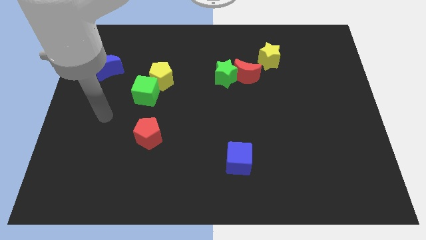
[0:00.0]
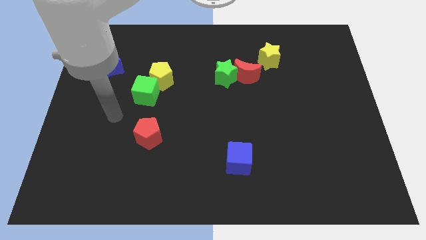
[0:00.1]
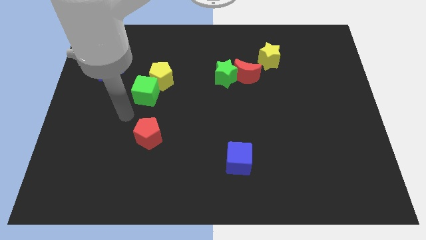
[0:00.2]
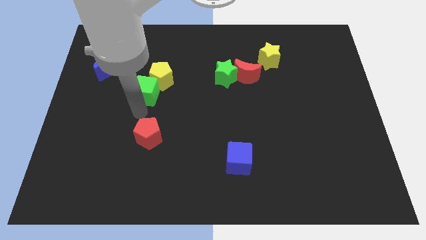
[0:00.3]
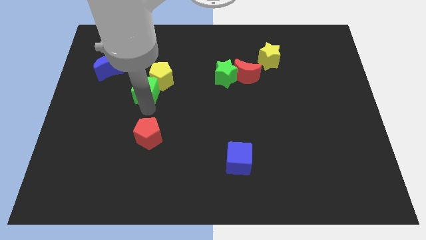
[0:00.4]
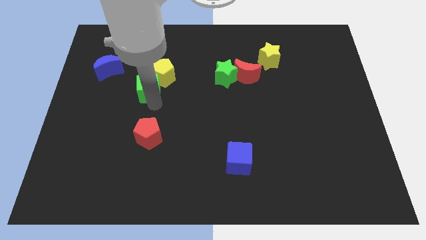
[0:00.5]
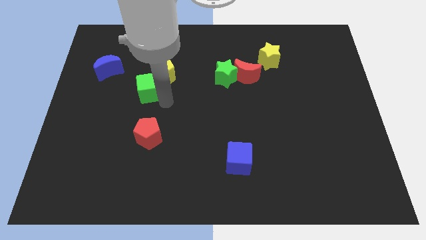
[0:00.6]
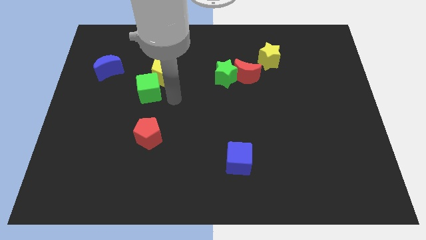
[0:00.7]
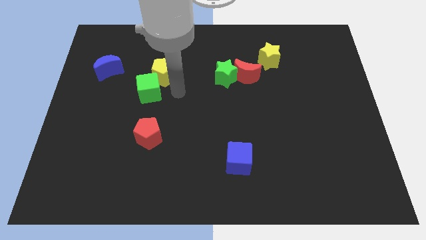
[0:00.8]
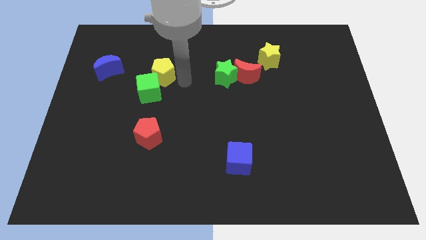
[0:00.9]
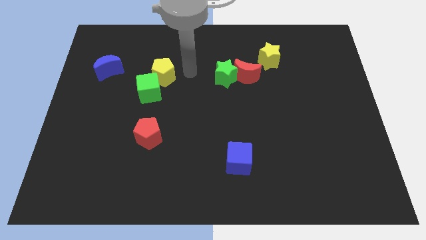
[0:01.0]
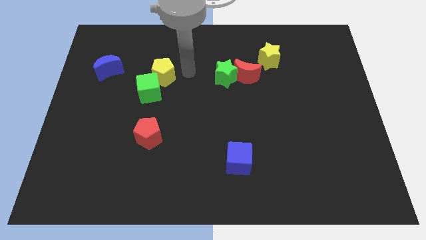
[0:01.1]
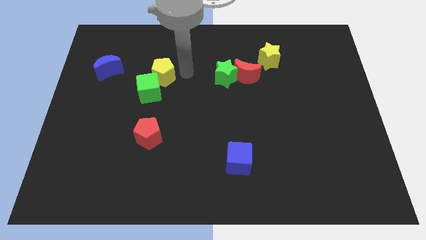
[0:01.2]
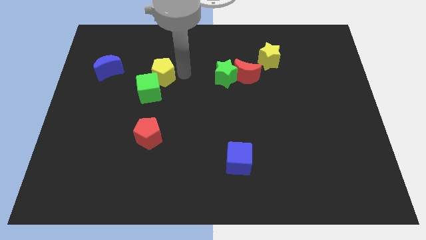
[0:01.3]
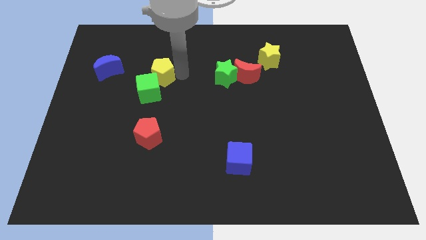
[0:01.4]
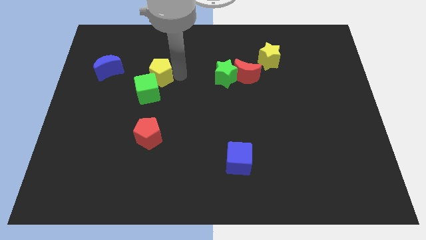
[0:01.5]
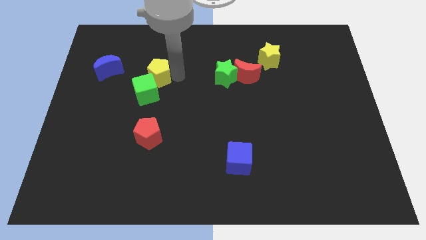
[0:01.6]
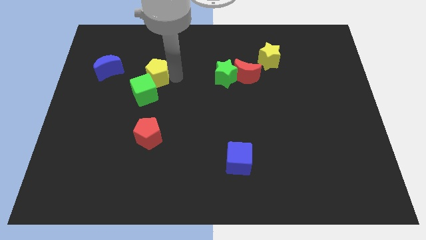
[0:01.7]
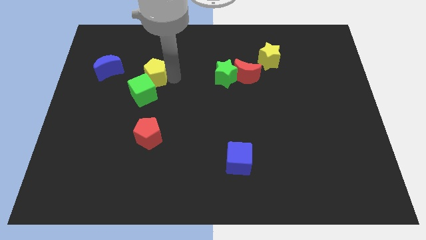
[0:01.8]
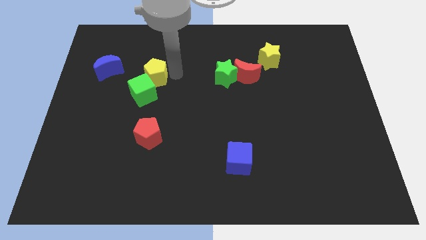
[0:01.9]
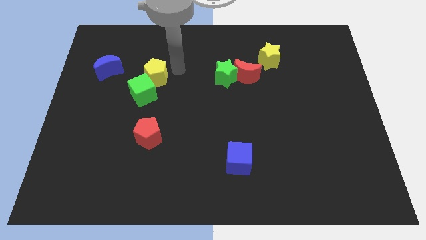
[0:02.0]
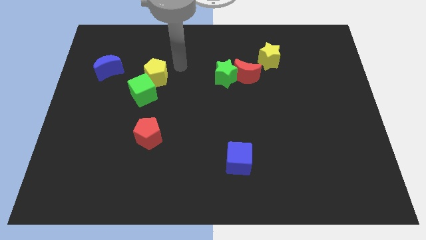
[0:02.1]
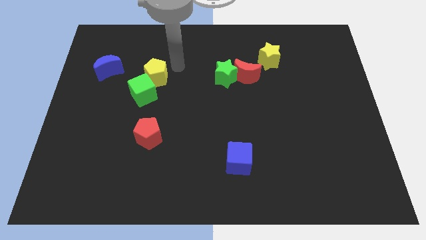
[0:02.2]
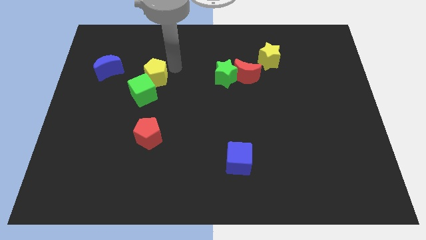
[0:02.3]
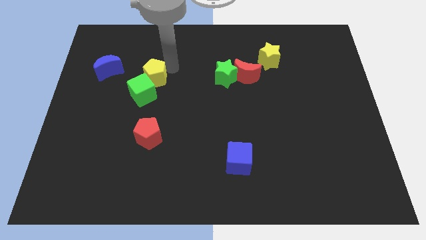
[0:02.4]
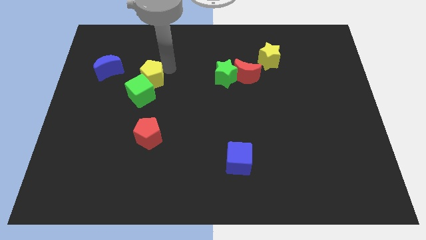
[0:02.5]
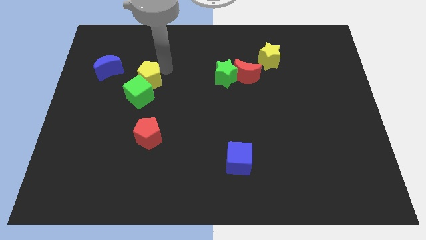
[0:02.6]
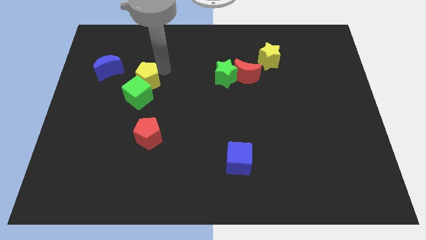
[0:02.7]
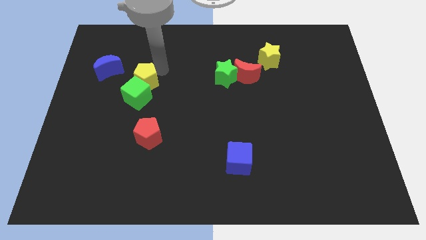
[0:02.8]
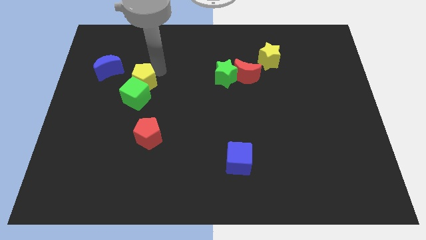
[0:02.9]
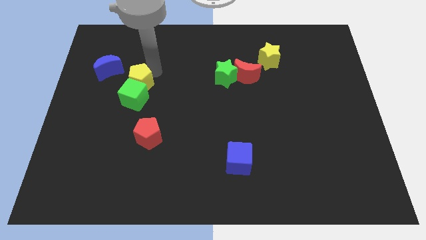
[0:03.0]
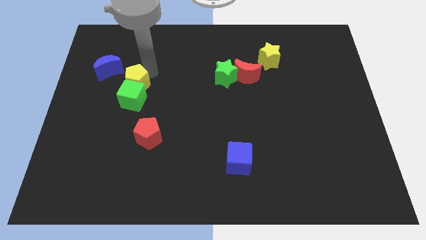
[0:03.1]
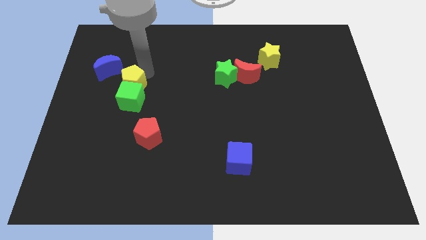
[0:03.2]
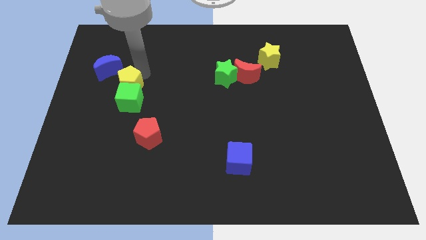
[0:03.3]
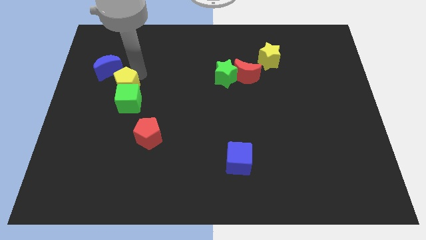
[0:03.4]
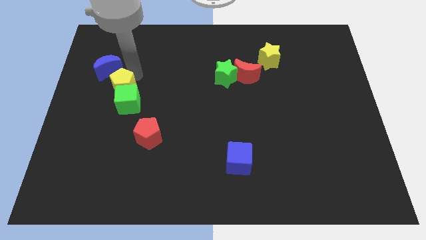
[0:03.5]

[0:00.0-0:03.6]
move the yellow pentagon a little down and left diagonally

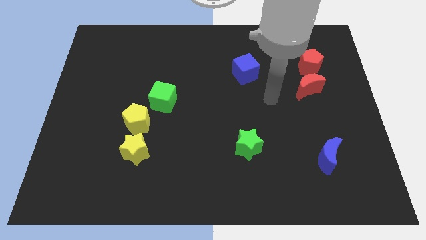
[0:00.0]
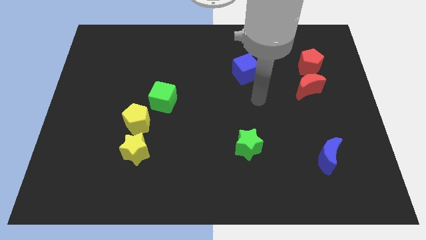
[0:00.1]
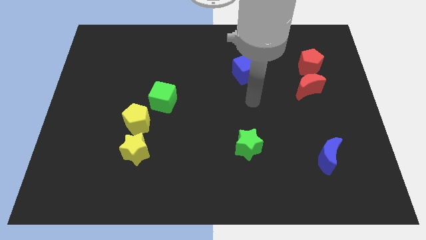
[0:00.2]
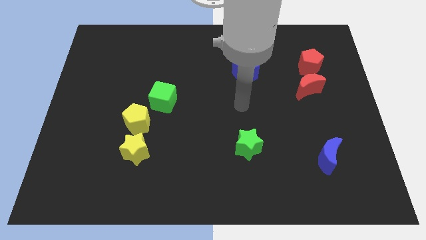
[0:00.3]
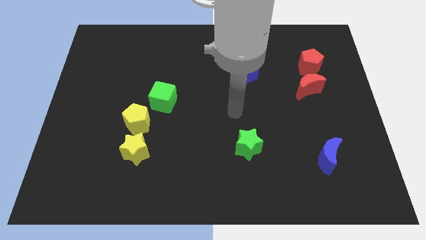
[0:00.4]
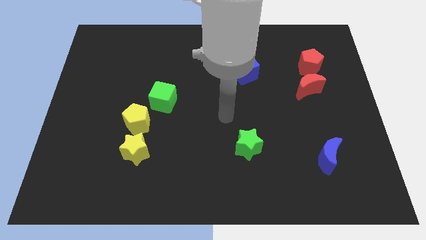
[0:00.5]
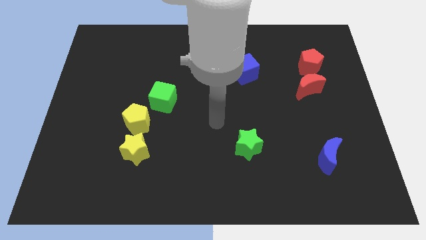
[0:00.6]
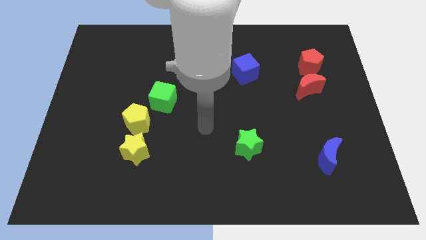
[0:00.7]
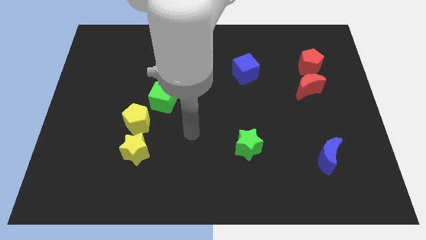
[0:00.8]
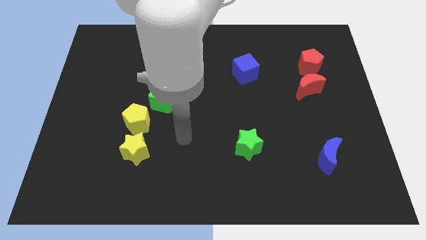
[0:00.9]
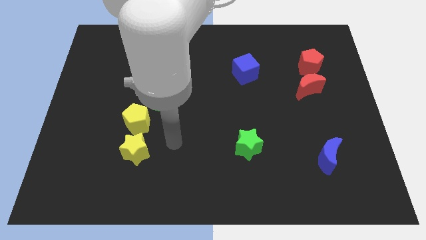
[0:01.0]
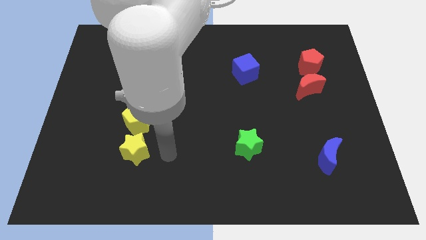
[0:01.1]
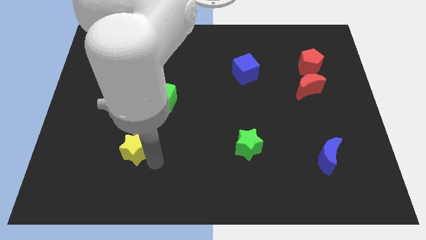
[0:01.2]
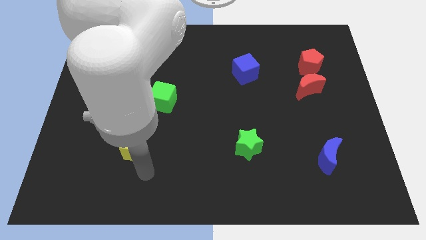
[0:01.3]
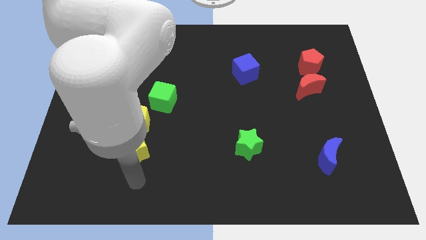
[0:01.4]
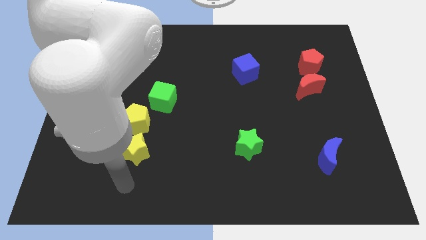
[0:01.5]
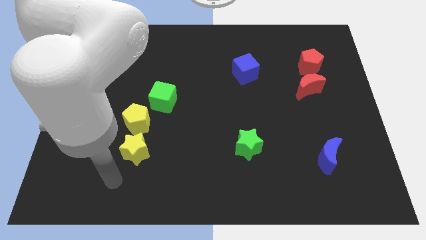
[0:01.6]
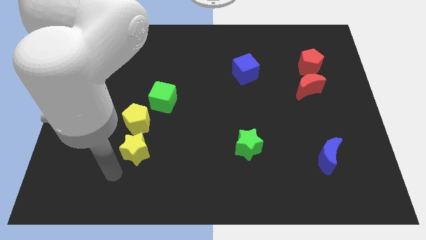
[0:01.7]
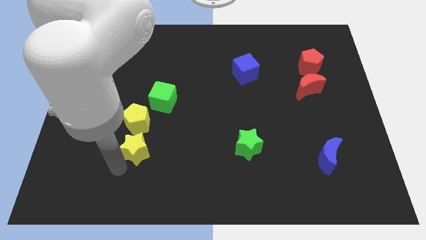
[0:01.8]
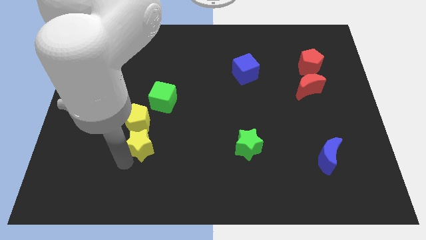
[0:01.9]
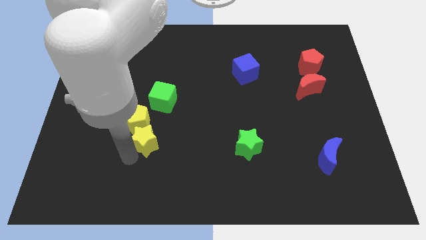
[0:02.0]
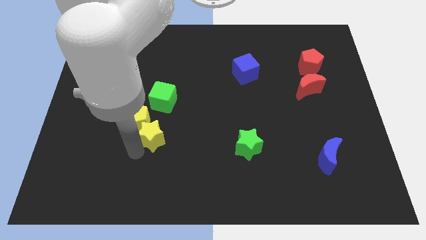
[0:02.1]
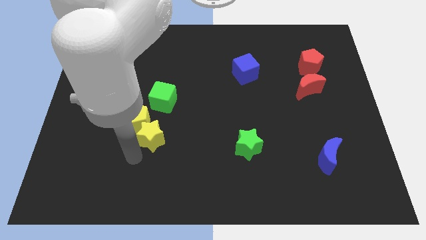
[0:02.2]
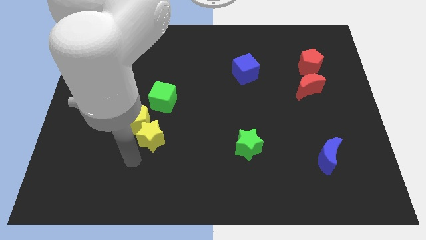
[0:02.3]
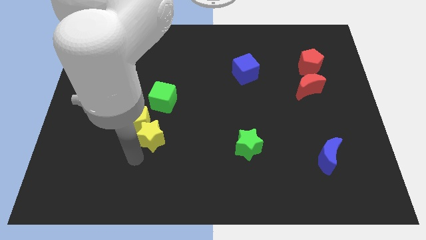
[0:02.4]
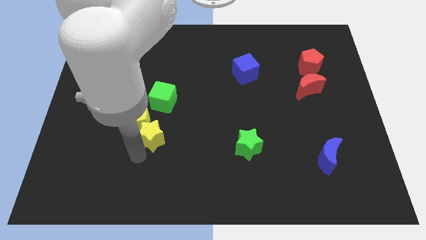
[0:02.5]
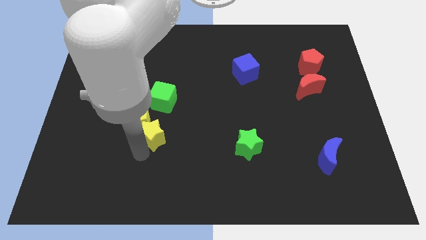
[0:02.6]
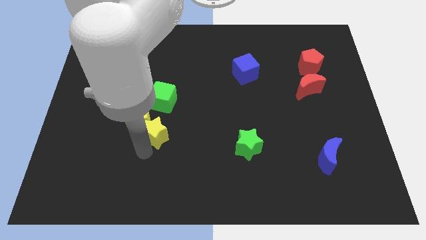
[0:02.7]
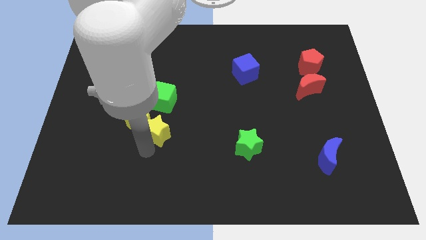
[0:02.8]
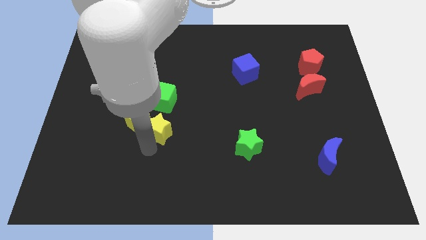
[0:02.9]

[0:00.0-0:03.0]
move the yellow star slightly up and then right

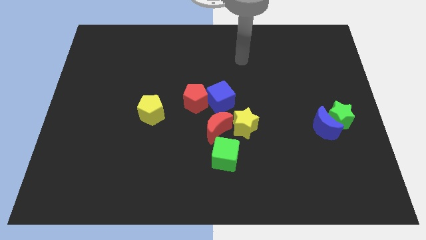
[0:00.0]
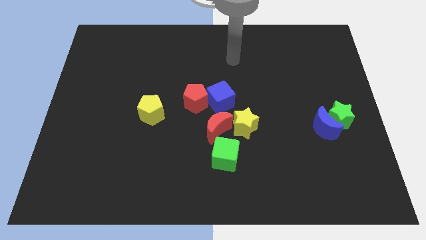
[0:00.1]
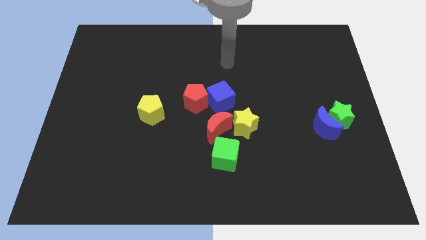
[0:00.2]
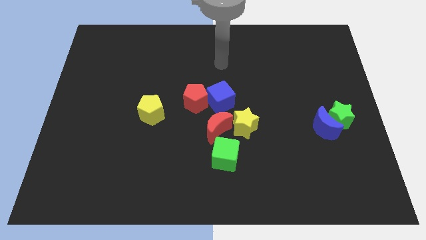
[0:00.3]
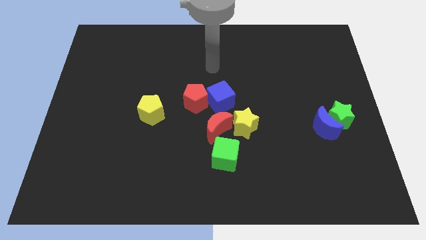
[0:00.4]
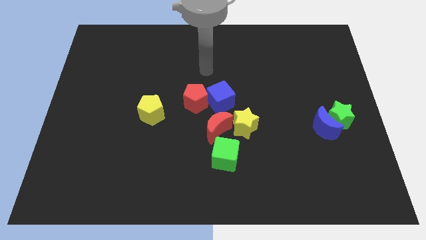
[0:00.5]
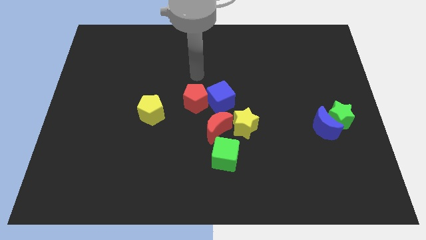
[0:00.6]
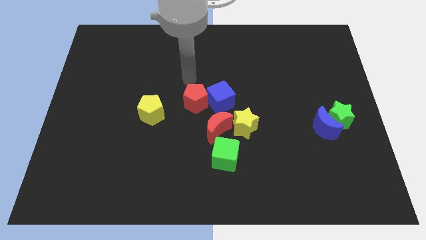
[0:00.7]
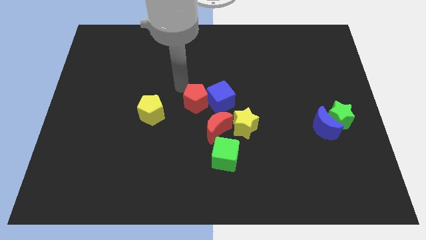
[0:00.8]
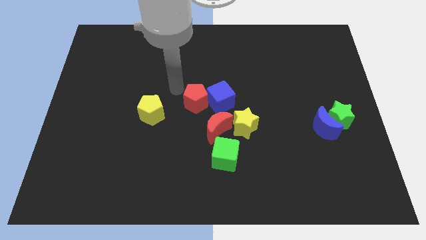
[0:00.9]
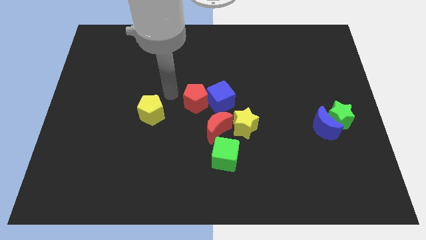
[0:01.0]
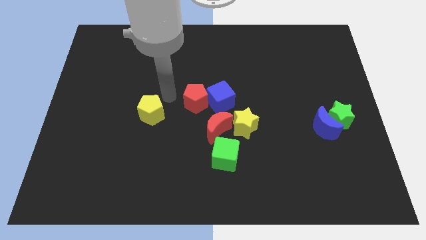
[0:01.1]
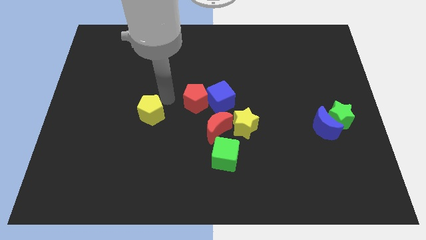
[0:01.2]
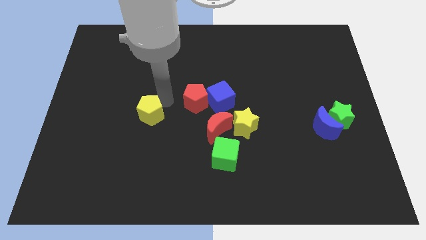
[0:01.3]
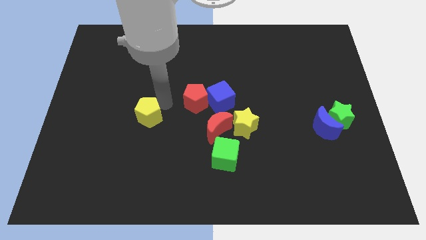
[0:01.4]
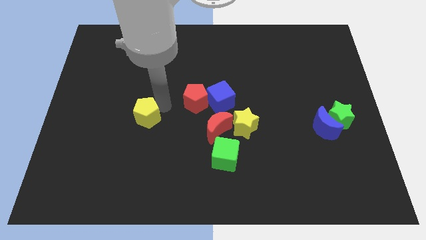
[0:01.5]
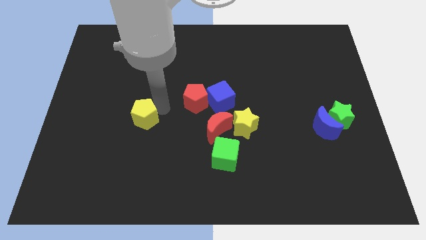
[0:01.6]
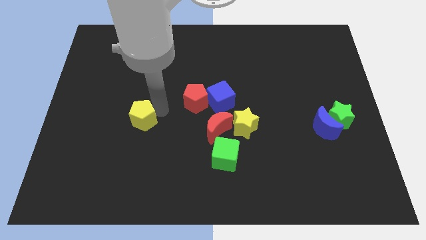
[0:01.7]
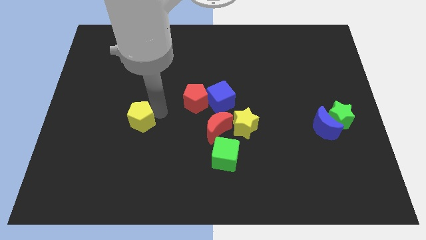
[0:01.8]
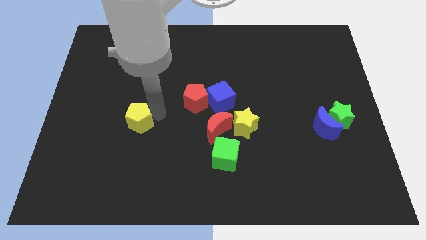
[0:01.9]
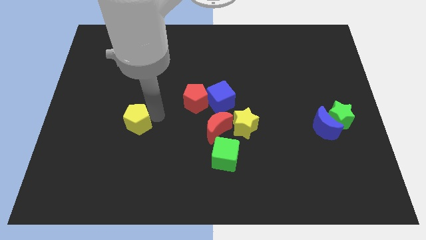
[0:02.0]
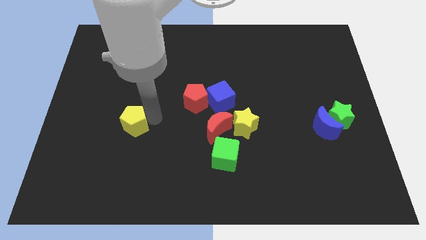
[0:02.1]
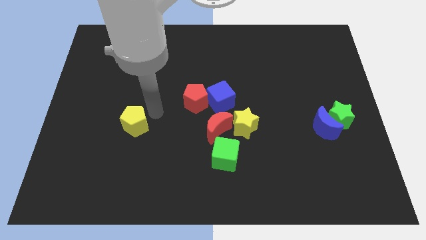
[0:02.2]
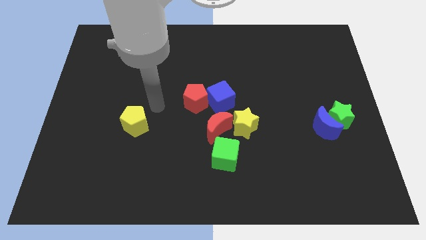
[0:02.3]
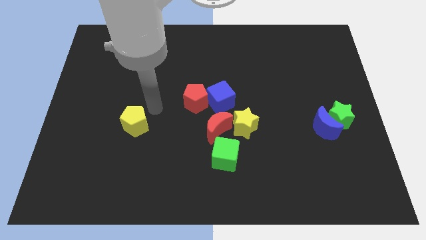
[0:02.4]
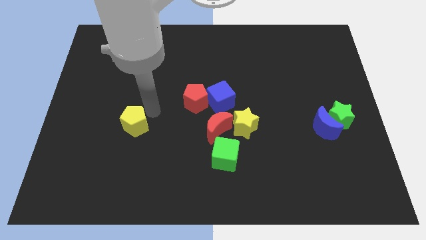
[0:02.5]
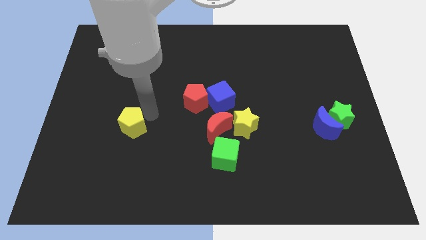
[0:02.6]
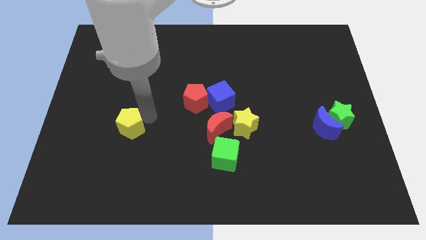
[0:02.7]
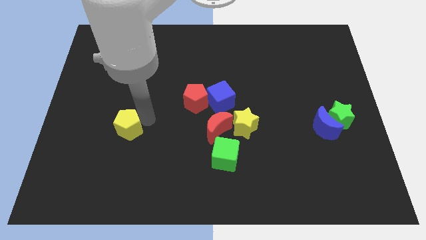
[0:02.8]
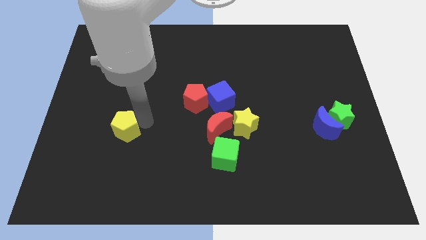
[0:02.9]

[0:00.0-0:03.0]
slightly move the yellow pentagon diagonally downwards and to the left
